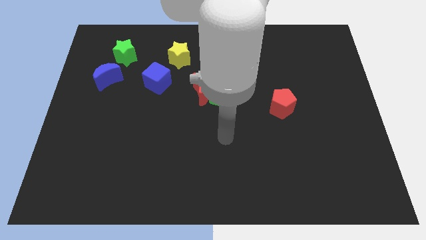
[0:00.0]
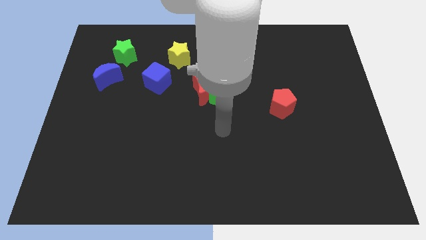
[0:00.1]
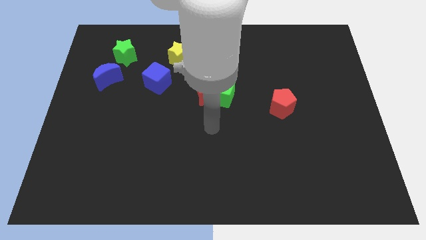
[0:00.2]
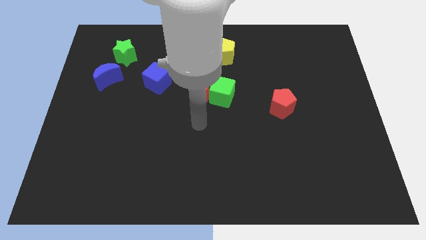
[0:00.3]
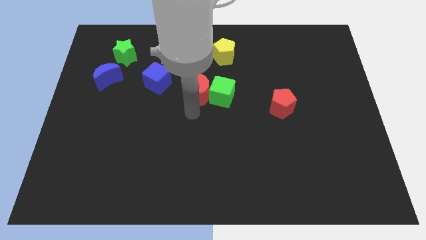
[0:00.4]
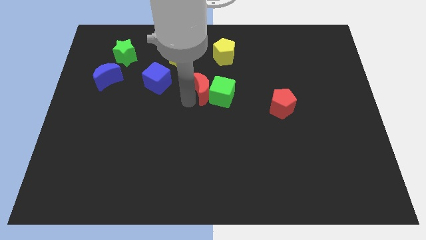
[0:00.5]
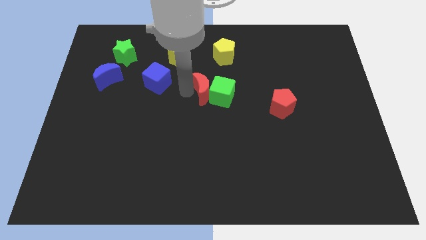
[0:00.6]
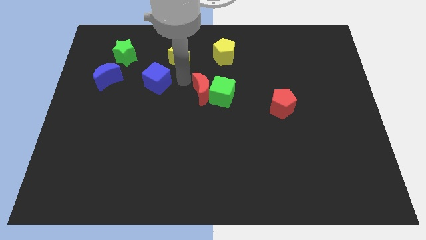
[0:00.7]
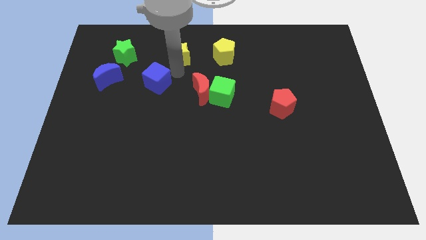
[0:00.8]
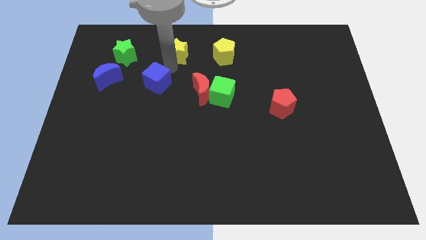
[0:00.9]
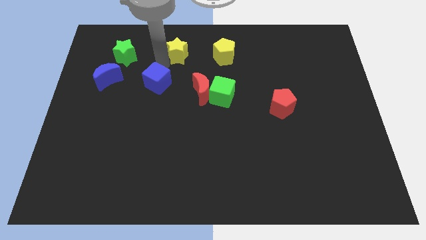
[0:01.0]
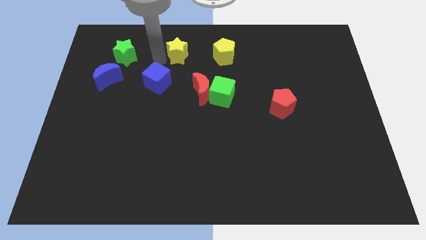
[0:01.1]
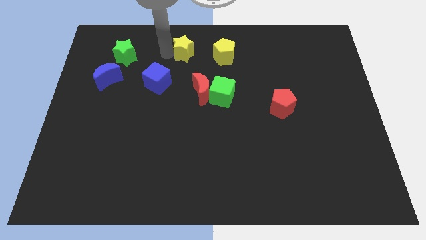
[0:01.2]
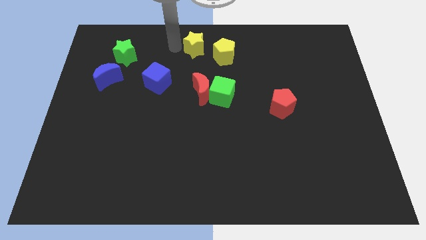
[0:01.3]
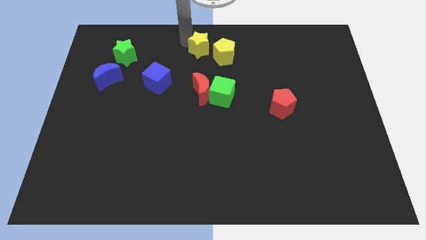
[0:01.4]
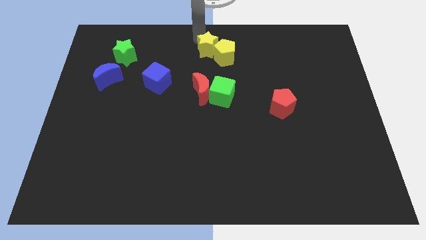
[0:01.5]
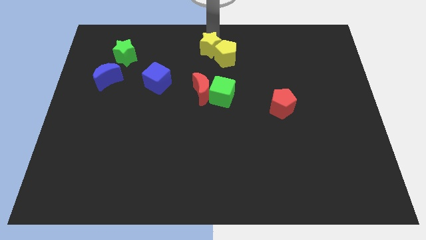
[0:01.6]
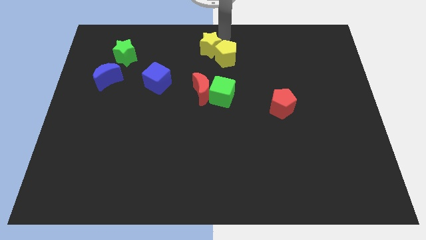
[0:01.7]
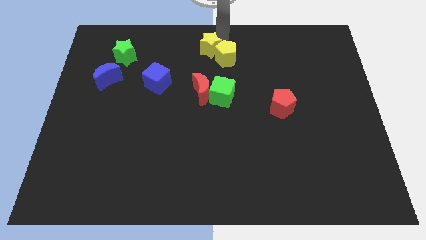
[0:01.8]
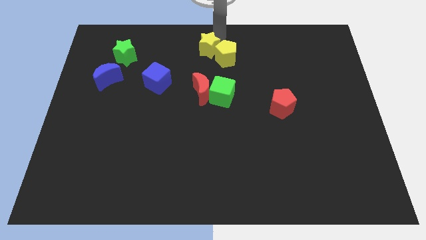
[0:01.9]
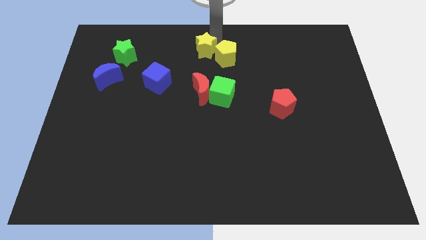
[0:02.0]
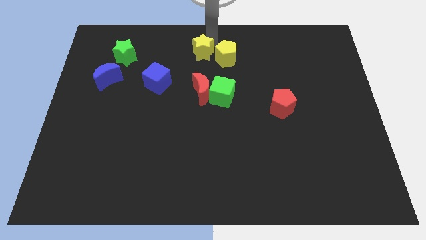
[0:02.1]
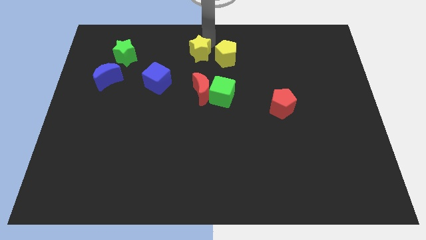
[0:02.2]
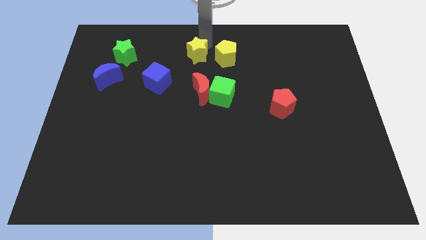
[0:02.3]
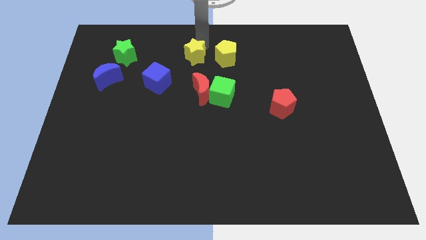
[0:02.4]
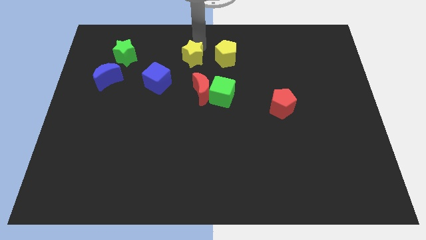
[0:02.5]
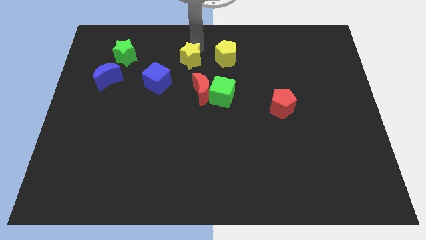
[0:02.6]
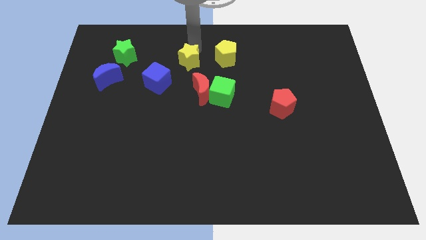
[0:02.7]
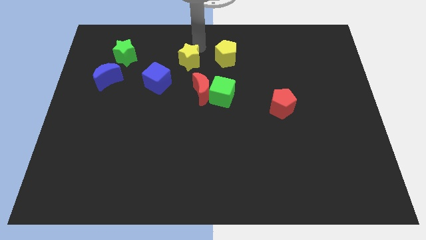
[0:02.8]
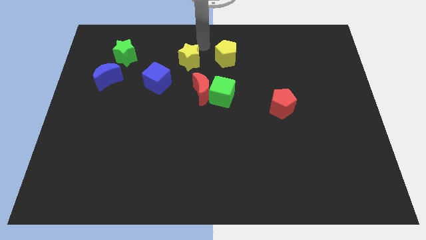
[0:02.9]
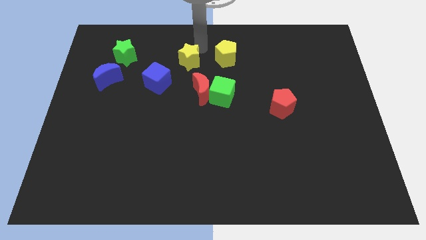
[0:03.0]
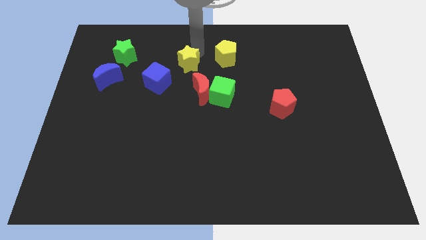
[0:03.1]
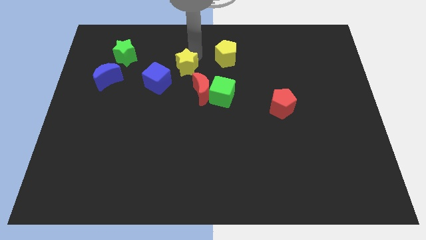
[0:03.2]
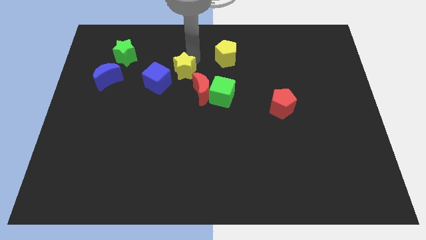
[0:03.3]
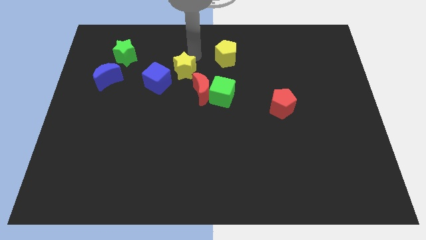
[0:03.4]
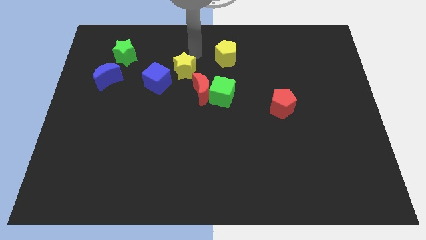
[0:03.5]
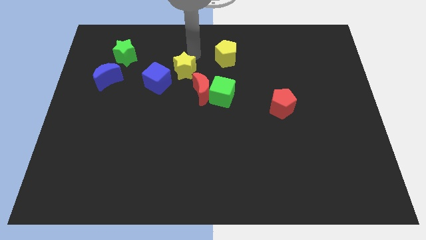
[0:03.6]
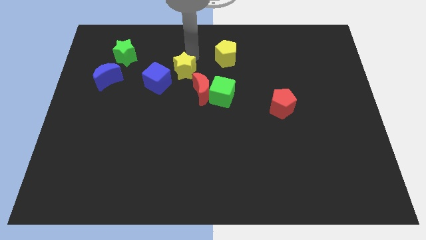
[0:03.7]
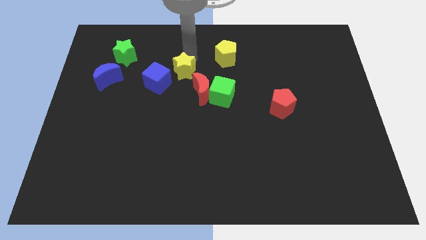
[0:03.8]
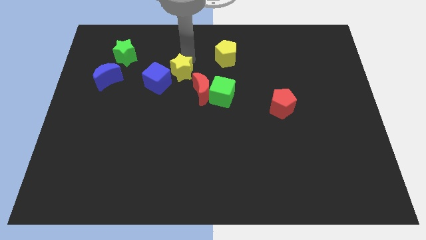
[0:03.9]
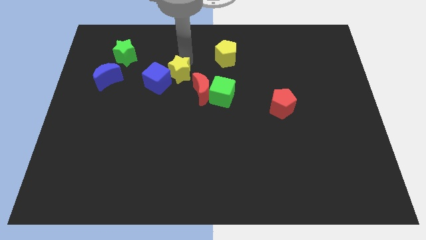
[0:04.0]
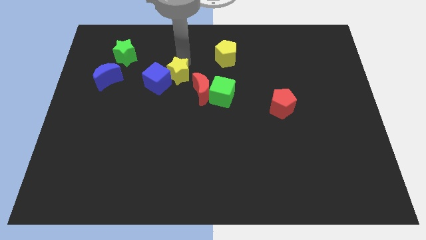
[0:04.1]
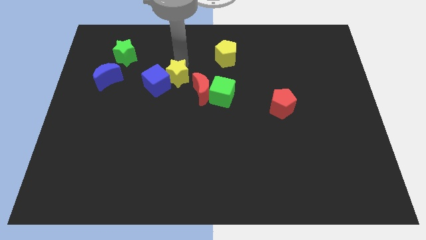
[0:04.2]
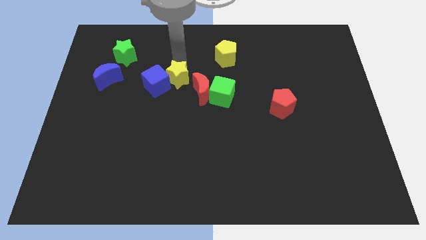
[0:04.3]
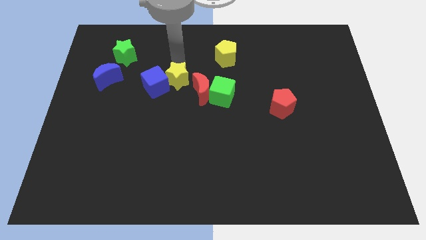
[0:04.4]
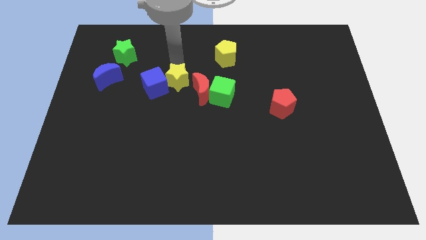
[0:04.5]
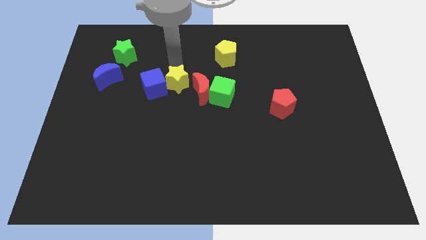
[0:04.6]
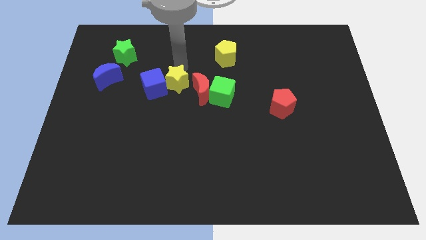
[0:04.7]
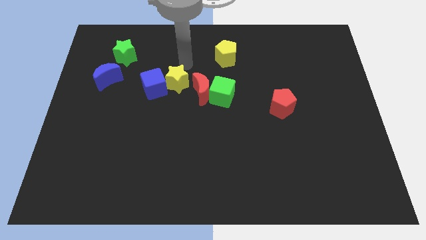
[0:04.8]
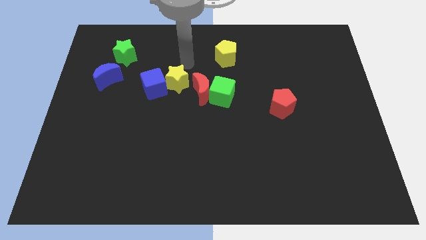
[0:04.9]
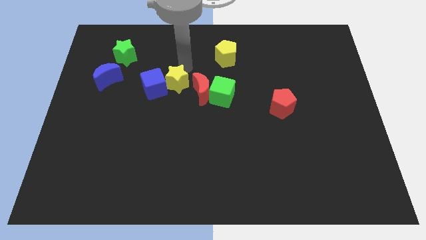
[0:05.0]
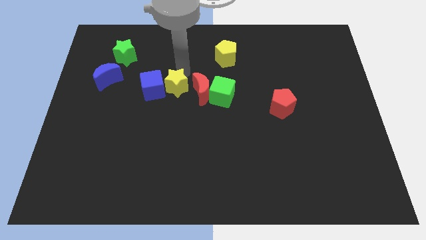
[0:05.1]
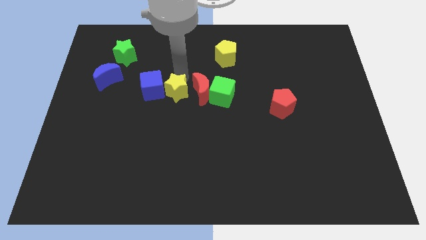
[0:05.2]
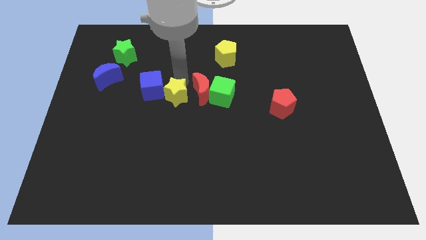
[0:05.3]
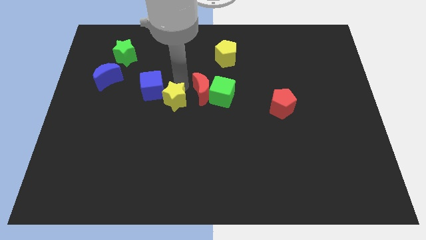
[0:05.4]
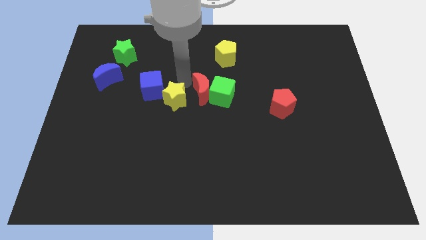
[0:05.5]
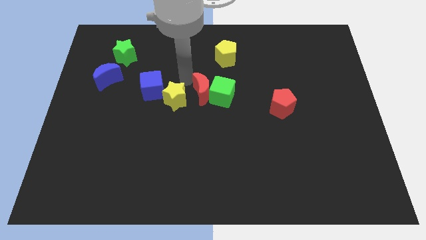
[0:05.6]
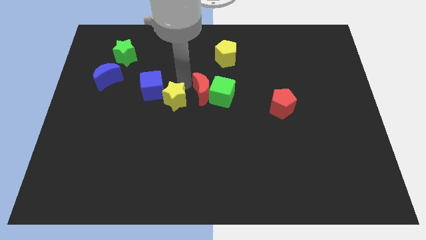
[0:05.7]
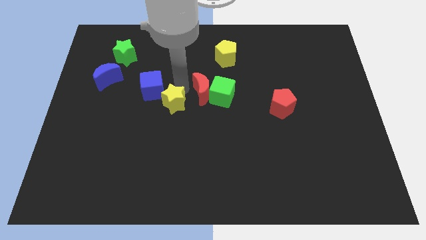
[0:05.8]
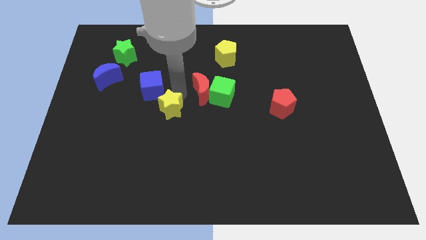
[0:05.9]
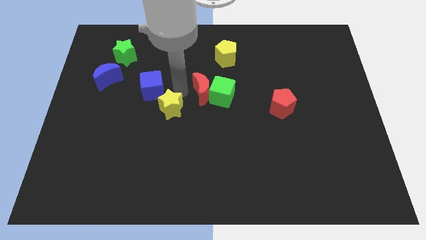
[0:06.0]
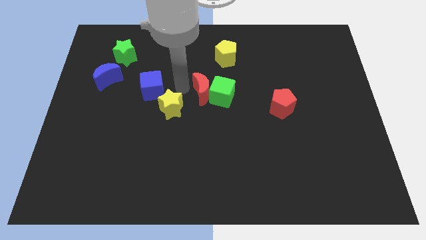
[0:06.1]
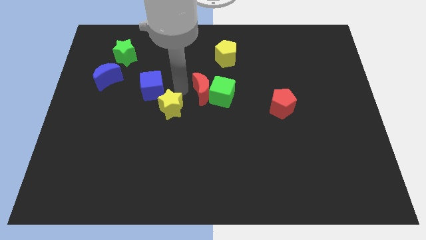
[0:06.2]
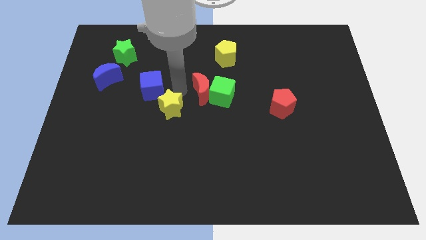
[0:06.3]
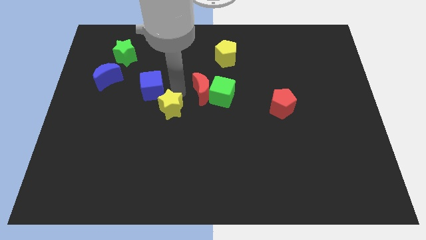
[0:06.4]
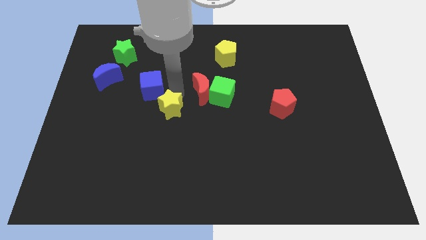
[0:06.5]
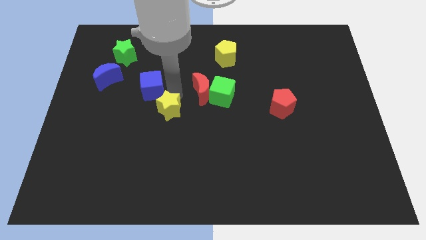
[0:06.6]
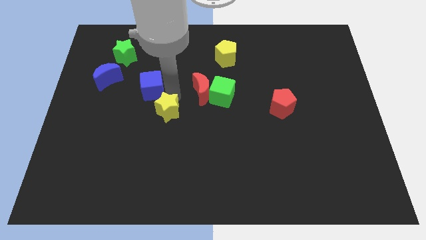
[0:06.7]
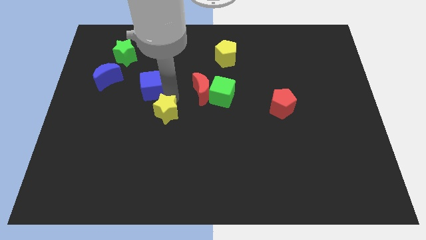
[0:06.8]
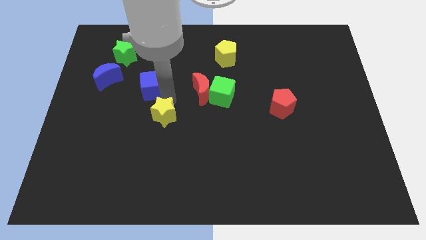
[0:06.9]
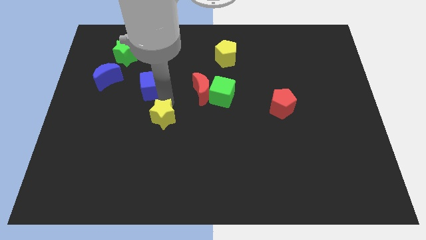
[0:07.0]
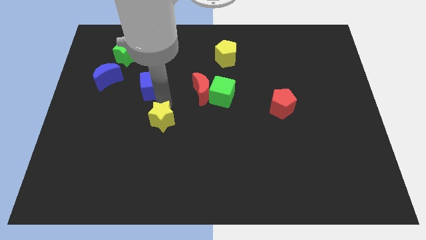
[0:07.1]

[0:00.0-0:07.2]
push the yellow star down

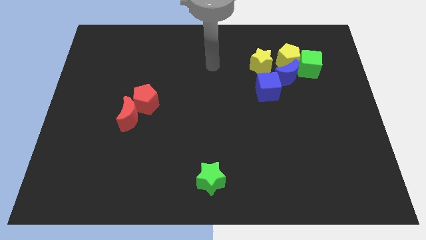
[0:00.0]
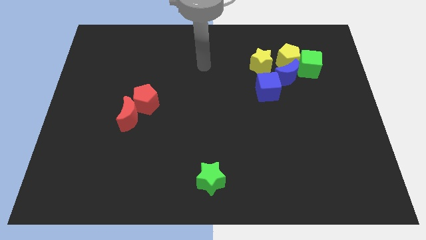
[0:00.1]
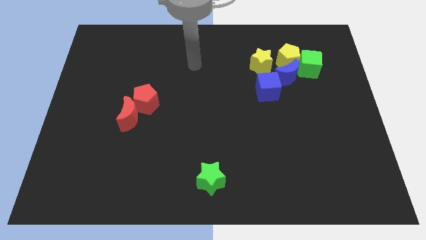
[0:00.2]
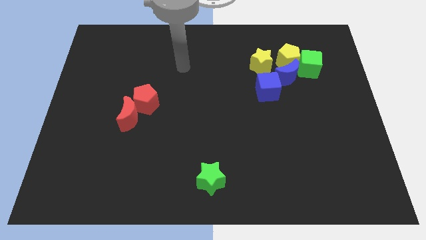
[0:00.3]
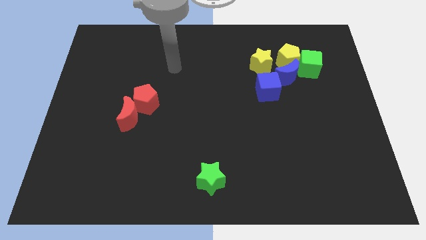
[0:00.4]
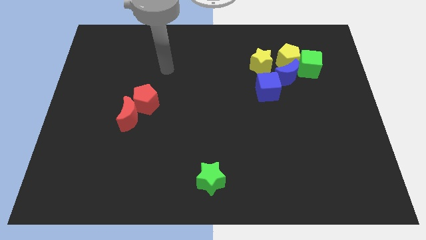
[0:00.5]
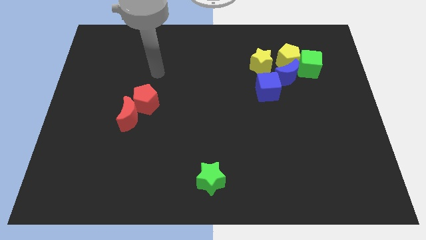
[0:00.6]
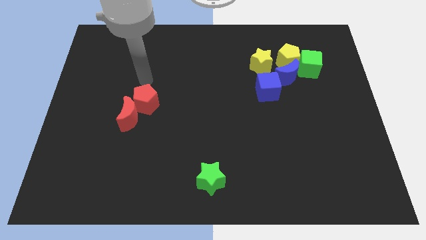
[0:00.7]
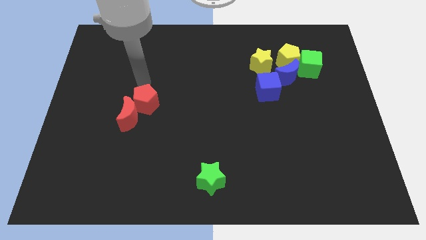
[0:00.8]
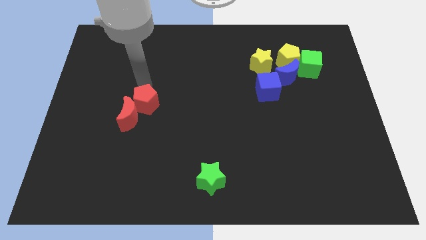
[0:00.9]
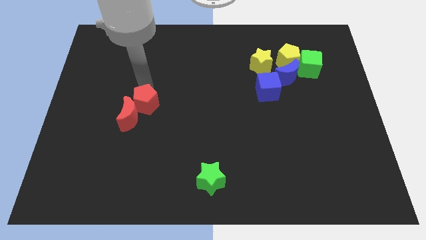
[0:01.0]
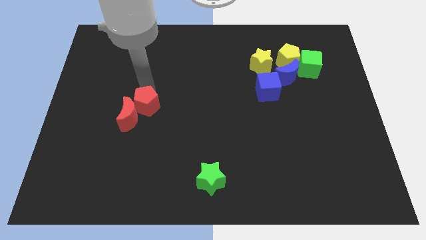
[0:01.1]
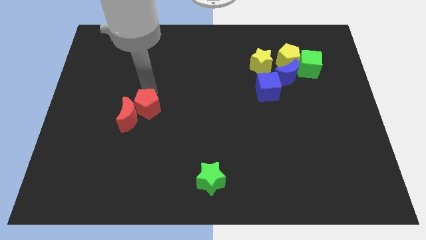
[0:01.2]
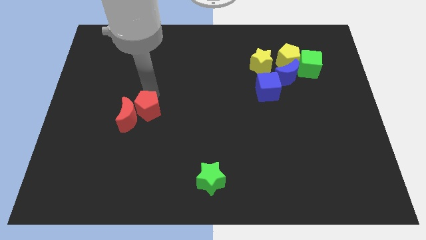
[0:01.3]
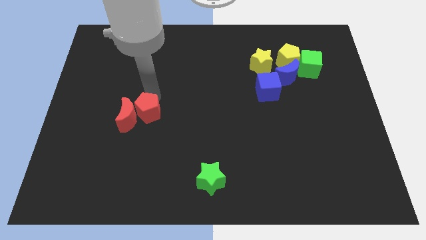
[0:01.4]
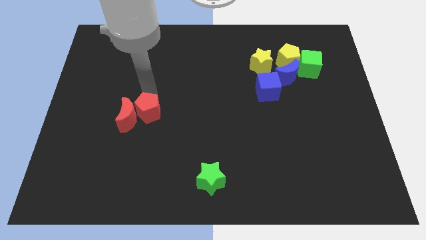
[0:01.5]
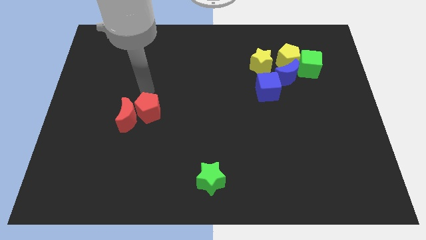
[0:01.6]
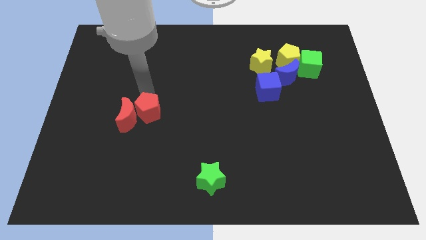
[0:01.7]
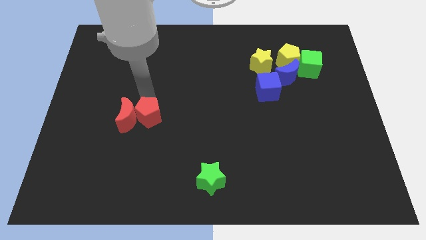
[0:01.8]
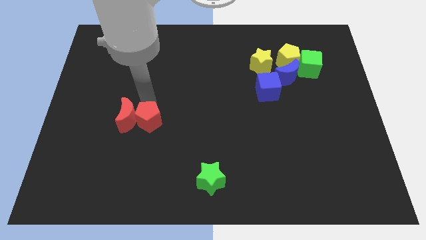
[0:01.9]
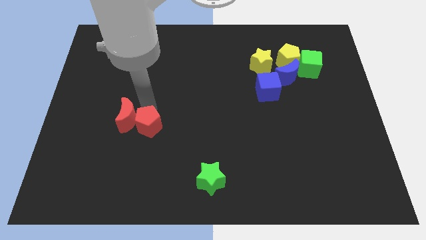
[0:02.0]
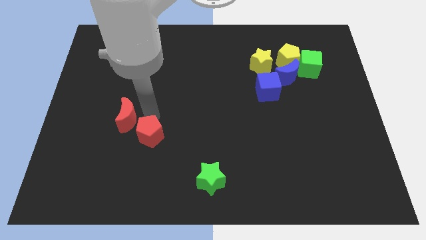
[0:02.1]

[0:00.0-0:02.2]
slightly slide the red pentagon down
